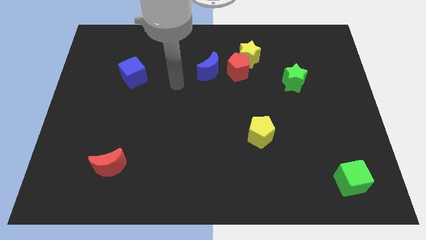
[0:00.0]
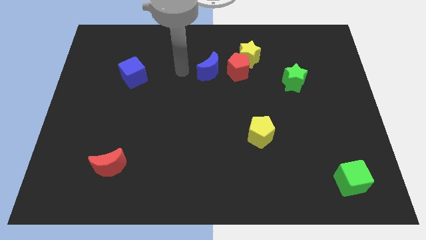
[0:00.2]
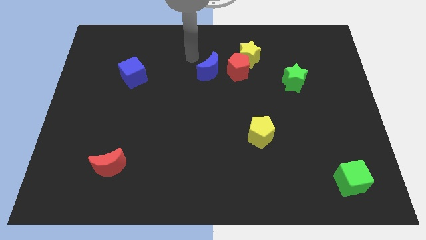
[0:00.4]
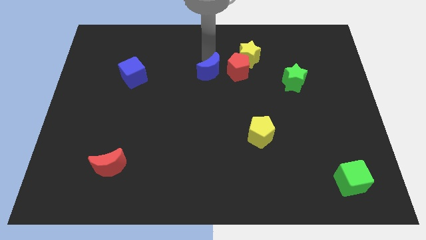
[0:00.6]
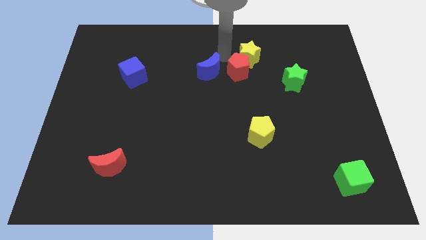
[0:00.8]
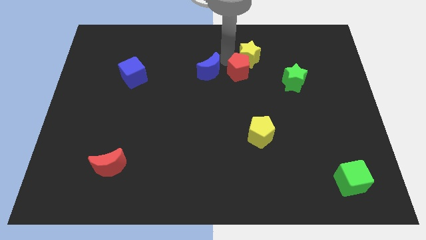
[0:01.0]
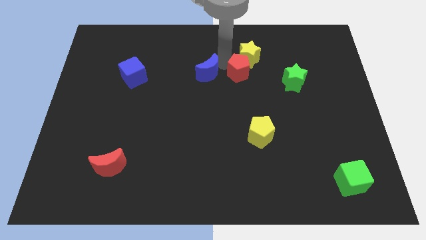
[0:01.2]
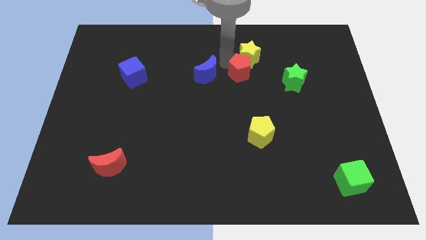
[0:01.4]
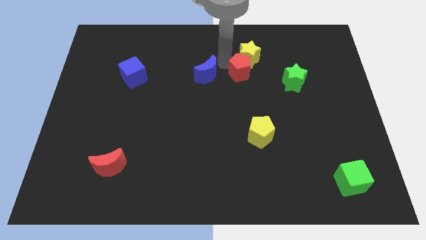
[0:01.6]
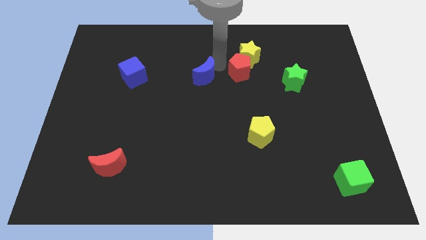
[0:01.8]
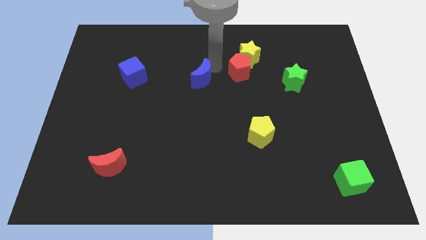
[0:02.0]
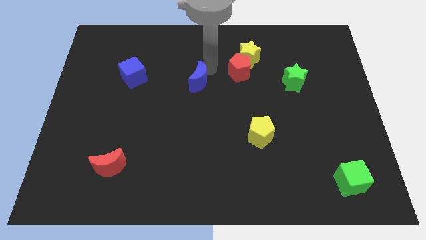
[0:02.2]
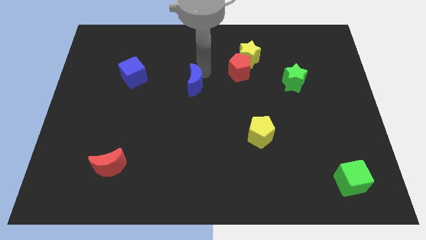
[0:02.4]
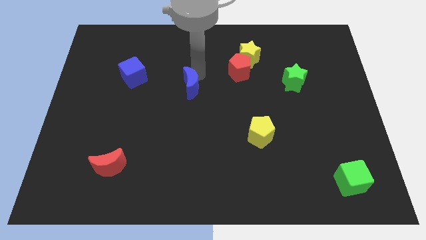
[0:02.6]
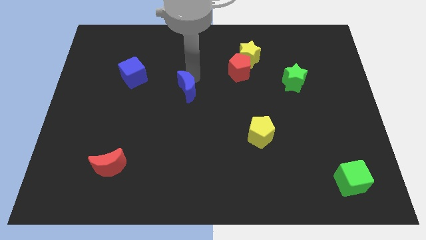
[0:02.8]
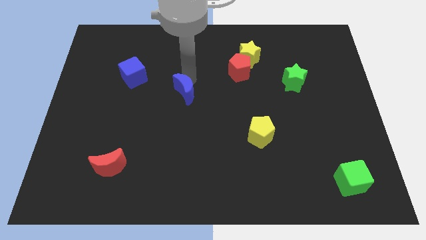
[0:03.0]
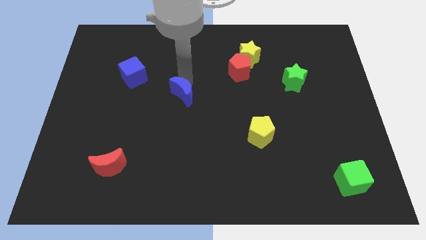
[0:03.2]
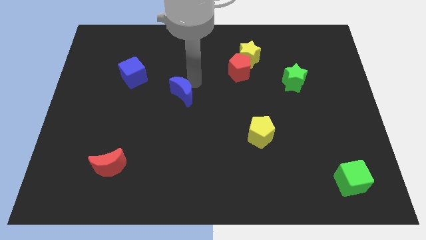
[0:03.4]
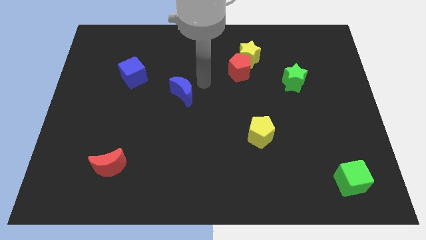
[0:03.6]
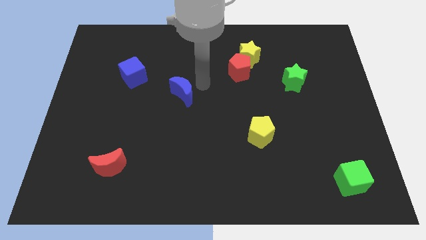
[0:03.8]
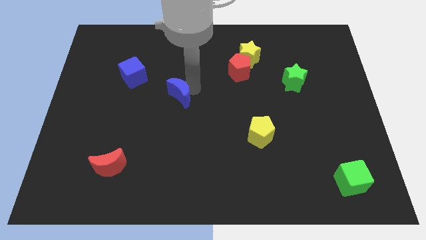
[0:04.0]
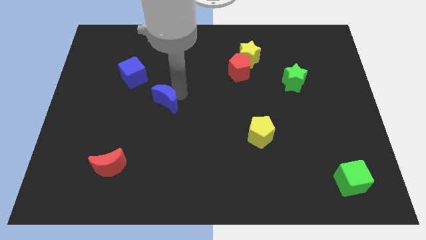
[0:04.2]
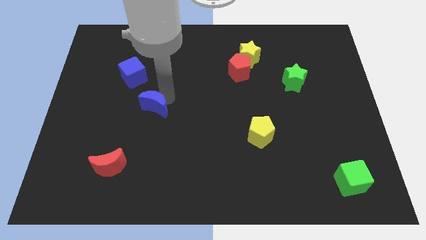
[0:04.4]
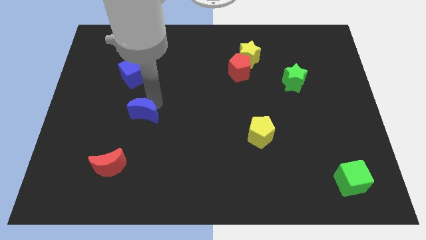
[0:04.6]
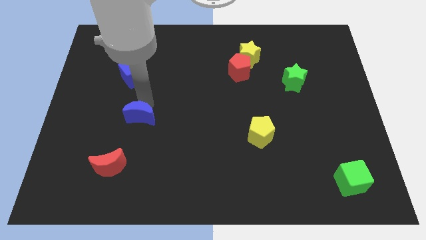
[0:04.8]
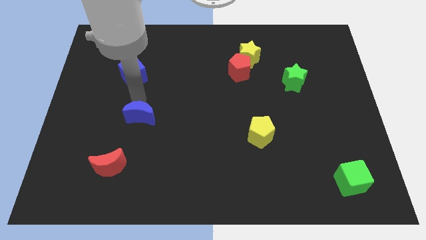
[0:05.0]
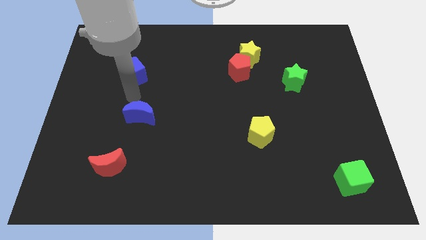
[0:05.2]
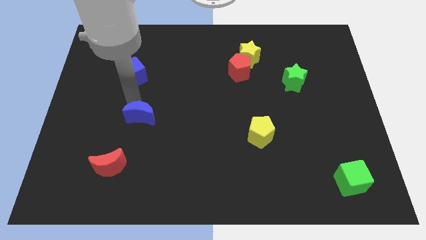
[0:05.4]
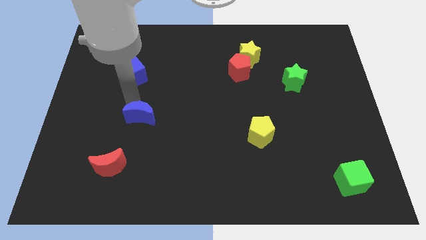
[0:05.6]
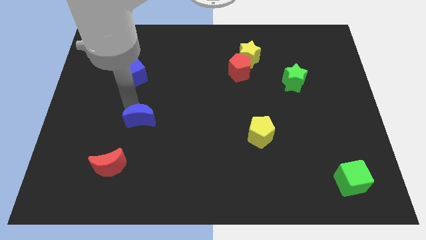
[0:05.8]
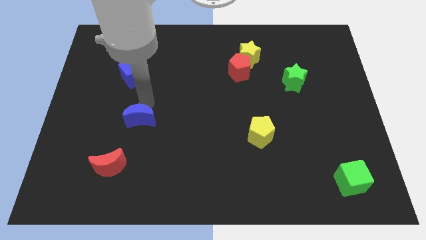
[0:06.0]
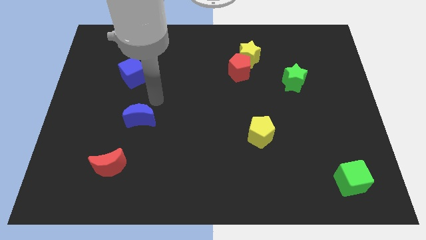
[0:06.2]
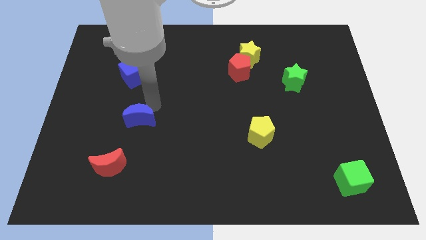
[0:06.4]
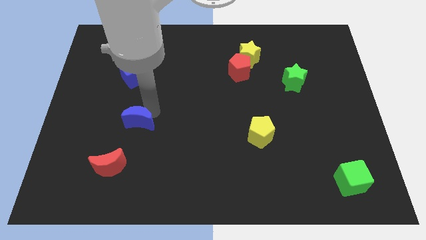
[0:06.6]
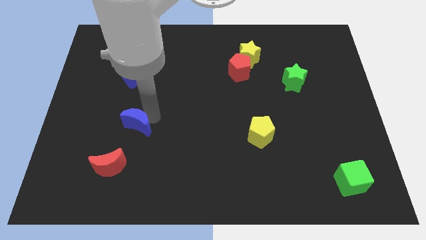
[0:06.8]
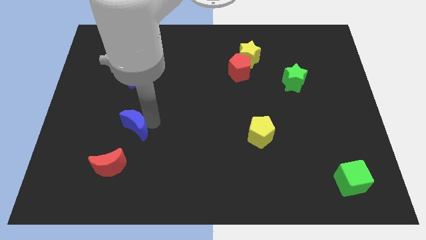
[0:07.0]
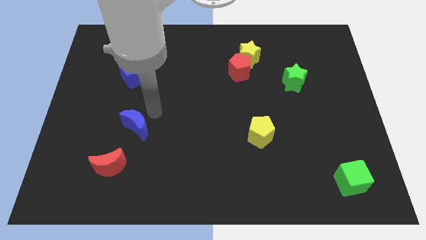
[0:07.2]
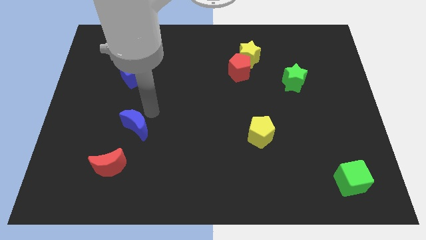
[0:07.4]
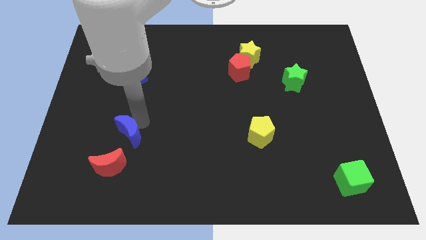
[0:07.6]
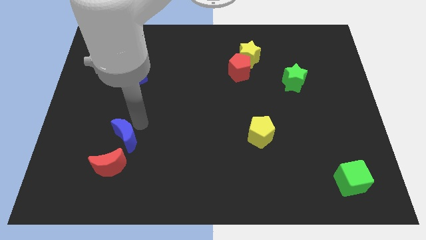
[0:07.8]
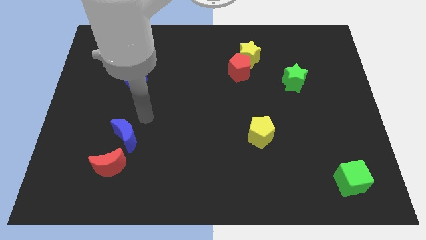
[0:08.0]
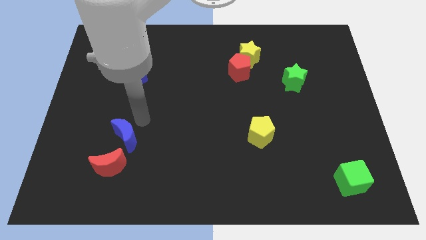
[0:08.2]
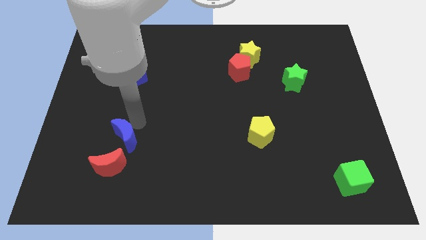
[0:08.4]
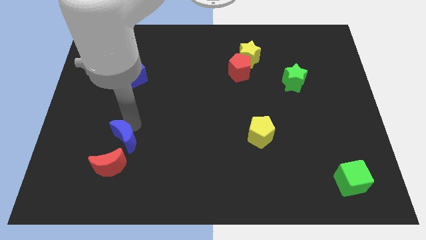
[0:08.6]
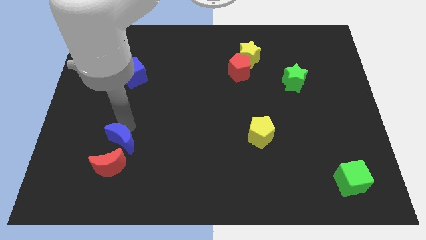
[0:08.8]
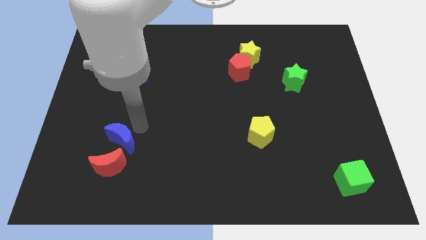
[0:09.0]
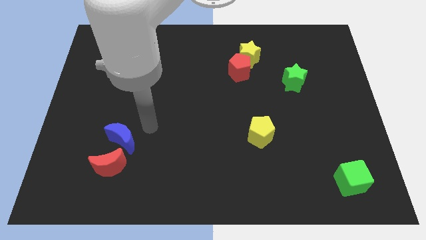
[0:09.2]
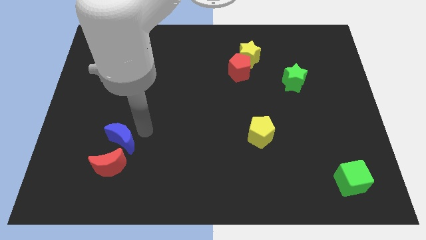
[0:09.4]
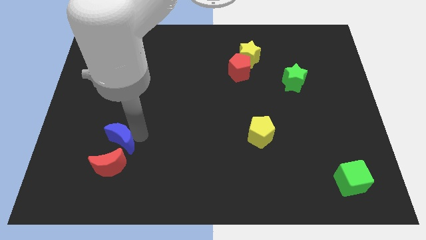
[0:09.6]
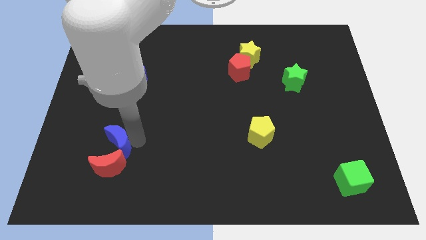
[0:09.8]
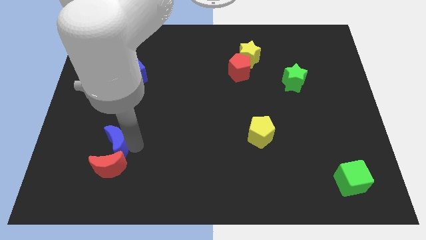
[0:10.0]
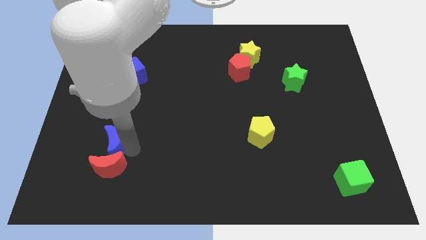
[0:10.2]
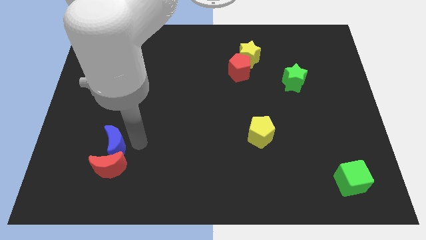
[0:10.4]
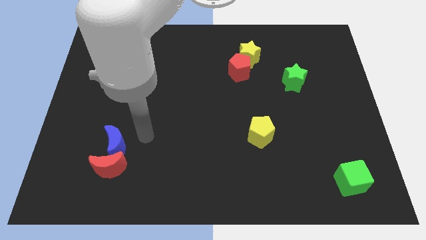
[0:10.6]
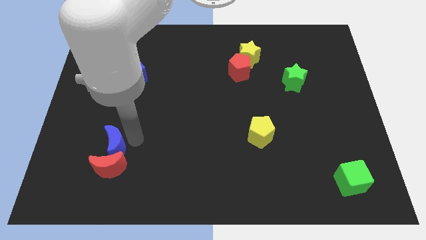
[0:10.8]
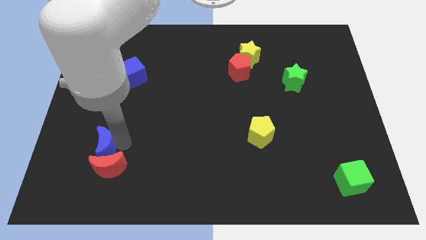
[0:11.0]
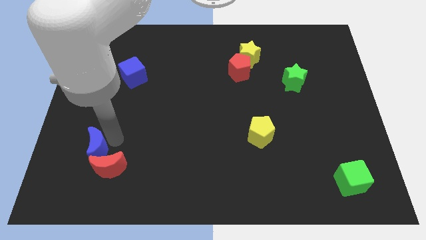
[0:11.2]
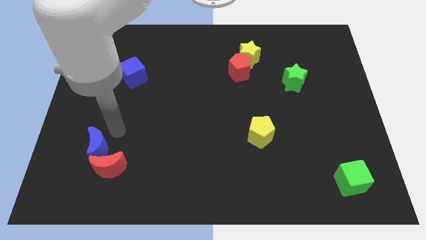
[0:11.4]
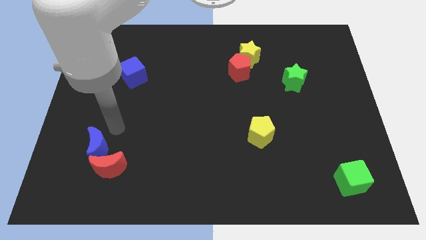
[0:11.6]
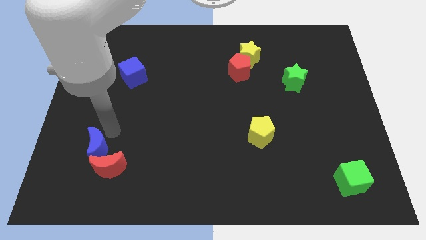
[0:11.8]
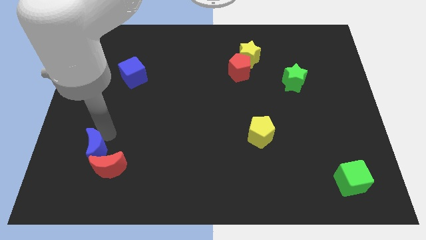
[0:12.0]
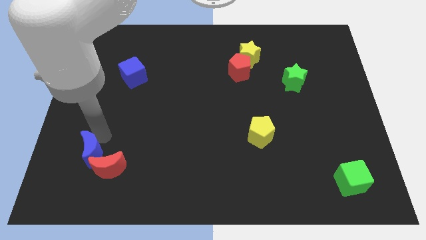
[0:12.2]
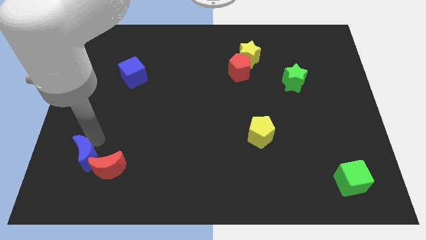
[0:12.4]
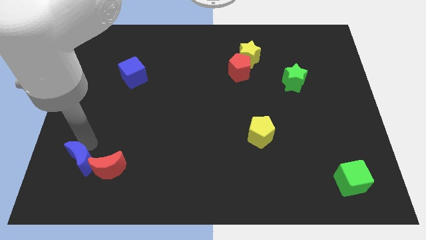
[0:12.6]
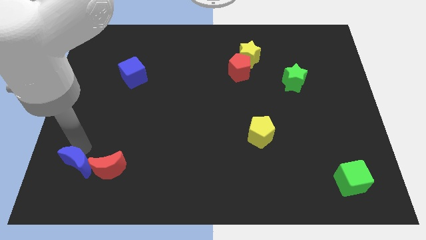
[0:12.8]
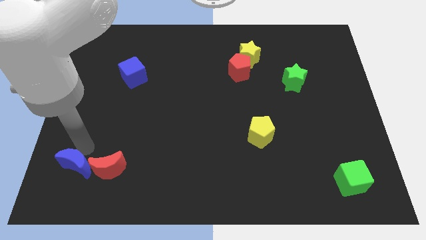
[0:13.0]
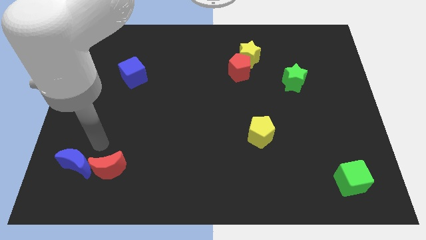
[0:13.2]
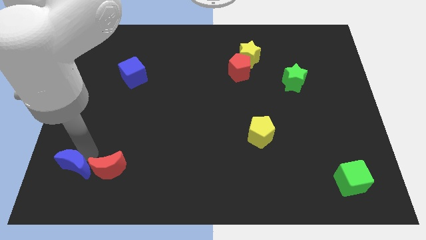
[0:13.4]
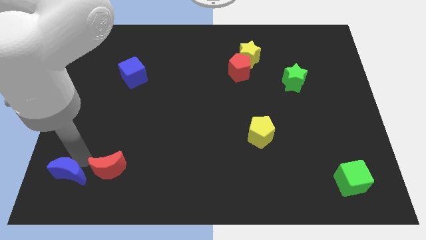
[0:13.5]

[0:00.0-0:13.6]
slide the blue moon to the bottom left corner

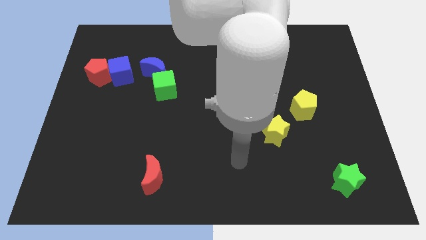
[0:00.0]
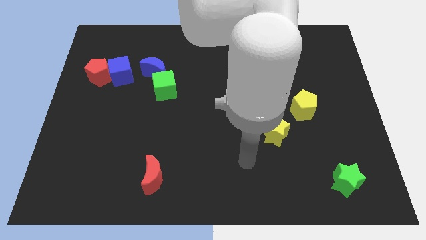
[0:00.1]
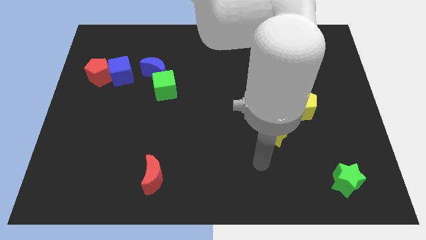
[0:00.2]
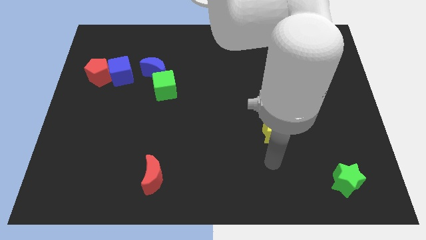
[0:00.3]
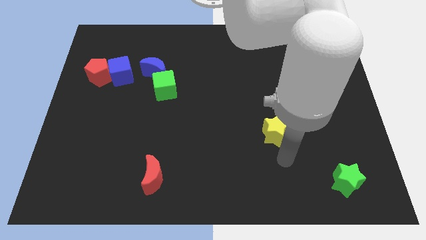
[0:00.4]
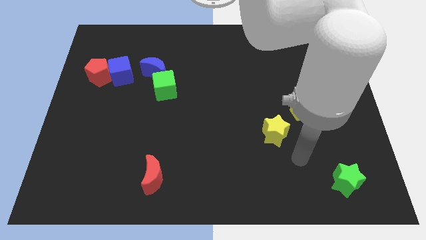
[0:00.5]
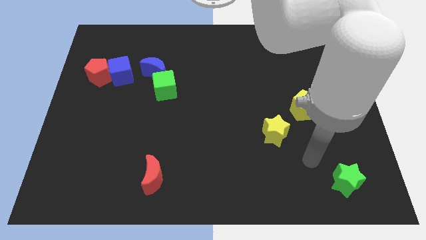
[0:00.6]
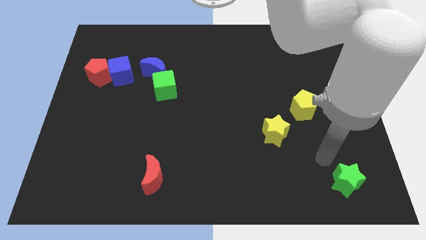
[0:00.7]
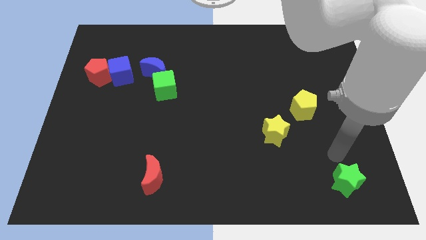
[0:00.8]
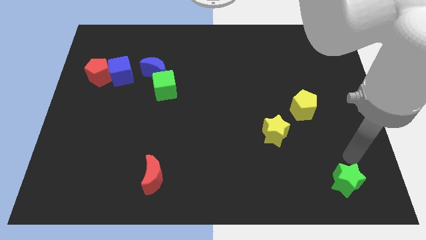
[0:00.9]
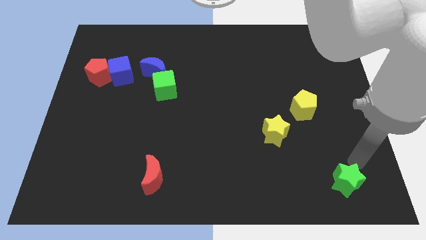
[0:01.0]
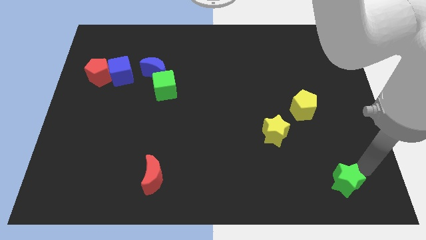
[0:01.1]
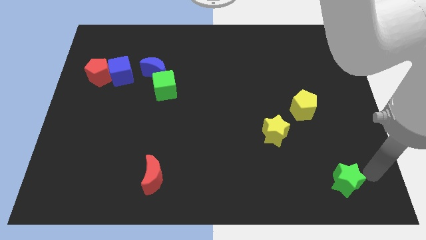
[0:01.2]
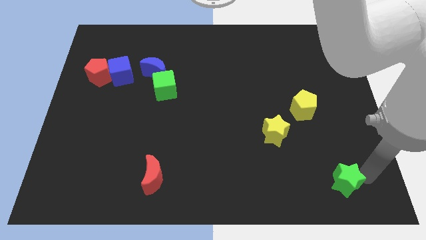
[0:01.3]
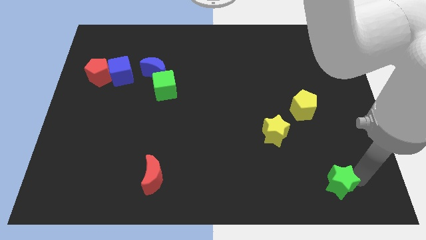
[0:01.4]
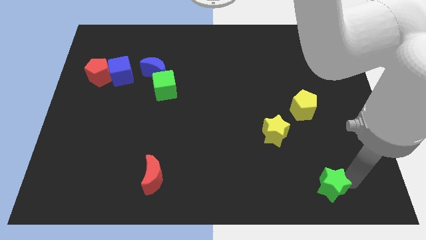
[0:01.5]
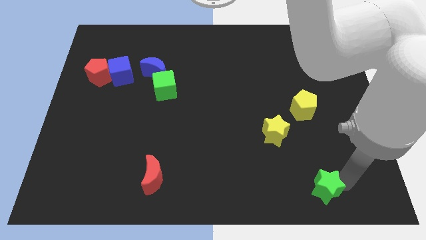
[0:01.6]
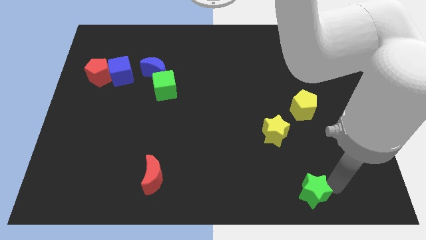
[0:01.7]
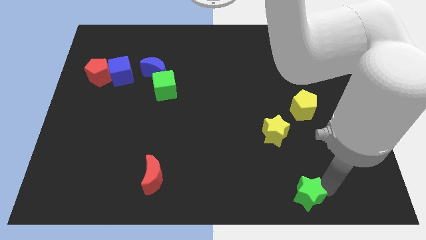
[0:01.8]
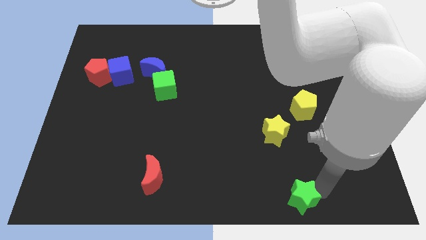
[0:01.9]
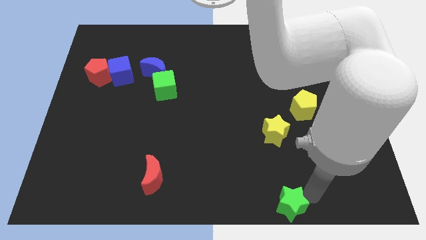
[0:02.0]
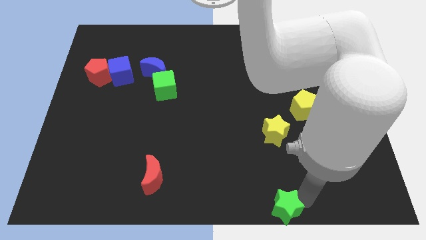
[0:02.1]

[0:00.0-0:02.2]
move the green star to the bottom side
